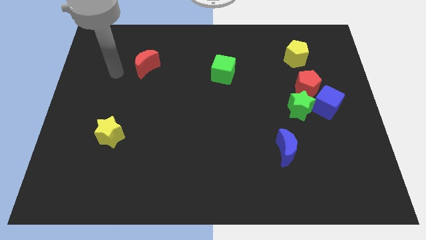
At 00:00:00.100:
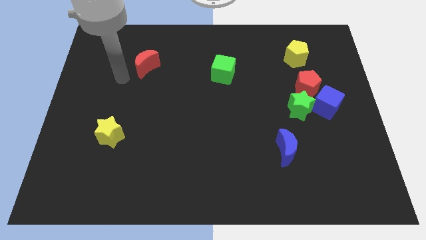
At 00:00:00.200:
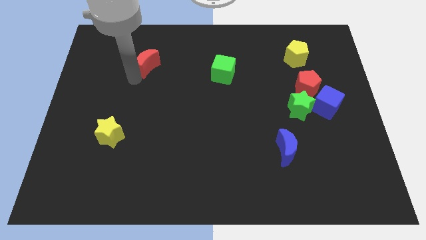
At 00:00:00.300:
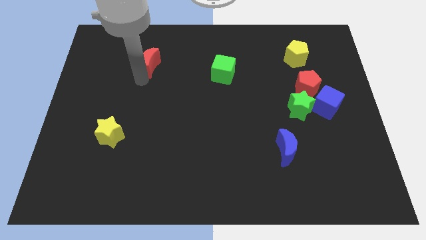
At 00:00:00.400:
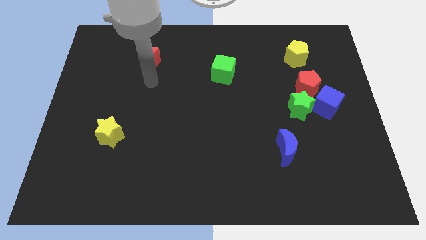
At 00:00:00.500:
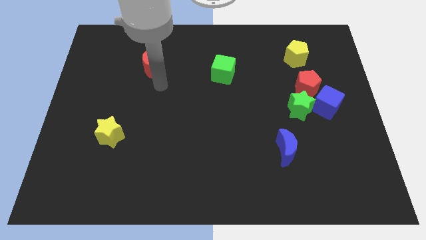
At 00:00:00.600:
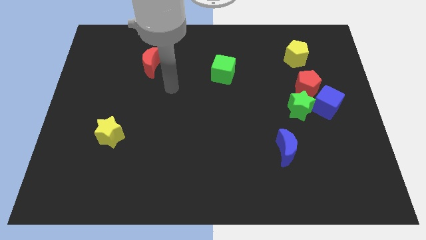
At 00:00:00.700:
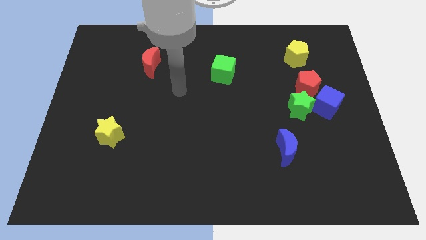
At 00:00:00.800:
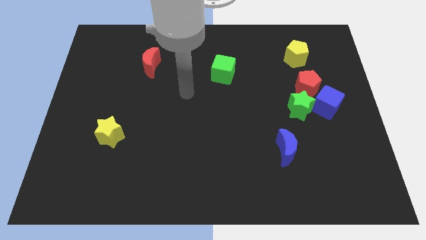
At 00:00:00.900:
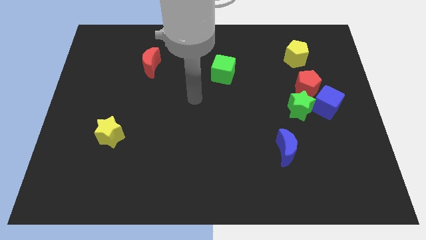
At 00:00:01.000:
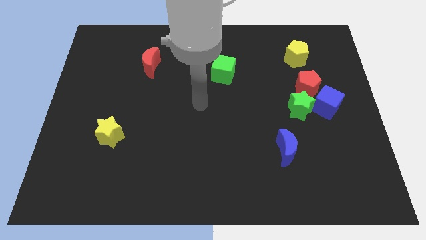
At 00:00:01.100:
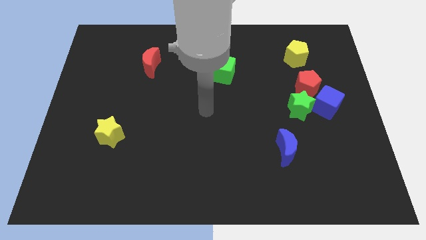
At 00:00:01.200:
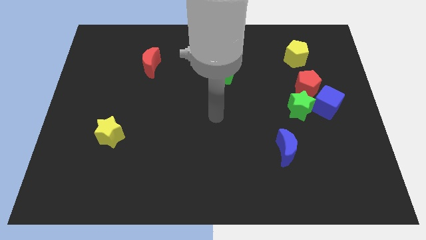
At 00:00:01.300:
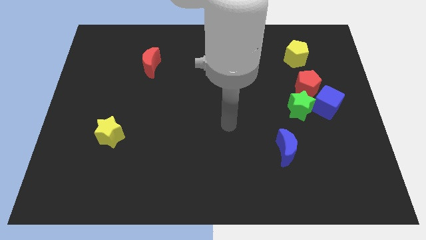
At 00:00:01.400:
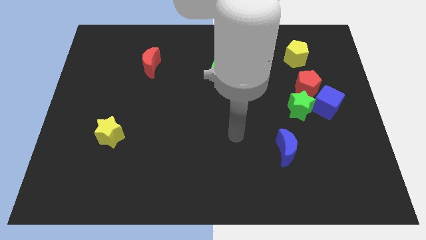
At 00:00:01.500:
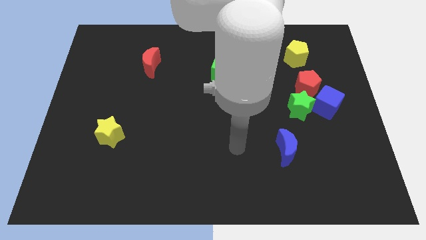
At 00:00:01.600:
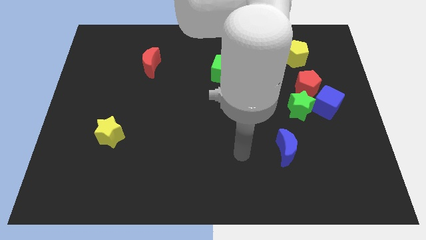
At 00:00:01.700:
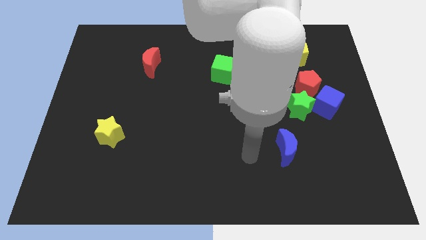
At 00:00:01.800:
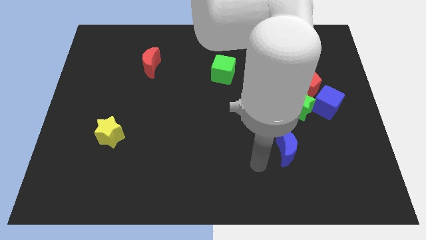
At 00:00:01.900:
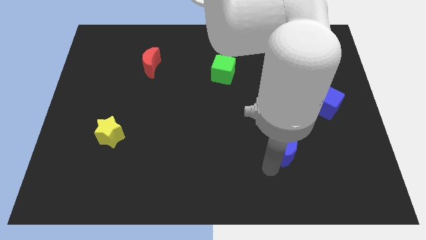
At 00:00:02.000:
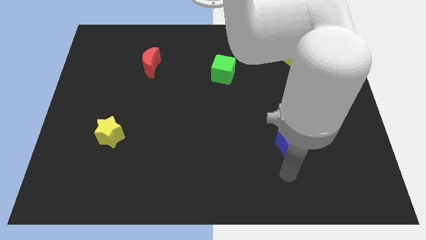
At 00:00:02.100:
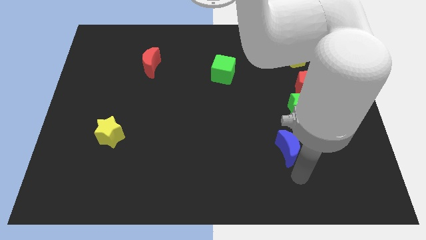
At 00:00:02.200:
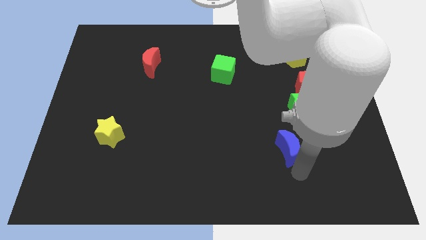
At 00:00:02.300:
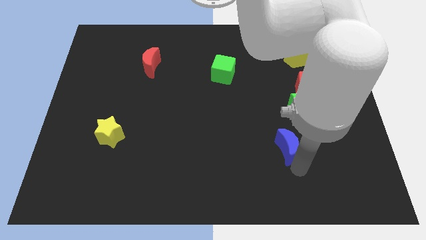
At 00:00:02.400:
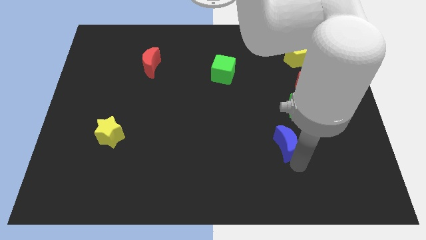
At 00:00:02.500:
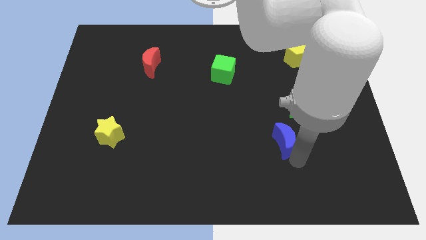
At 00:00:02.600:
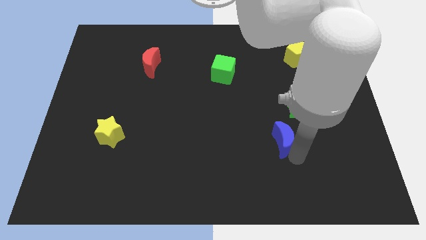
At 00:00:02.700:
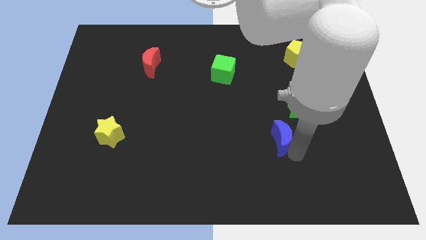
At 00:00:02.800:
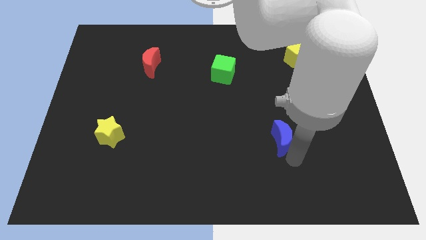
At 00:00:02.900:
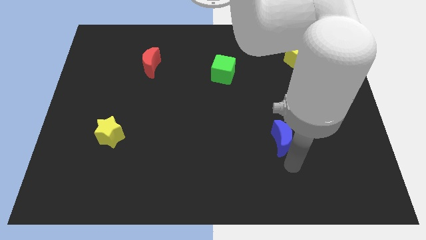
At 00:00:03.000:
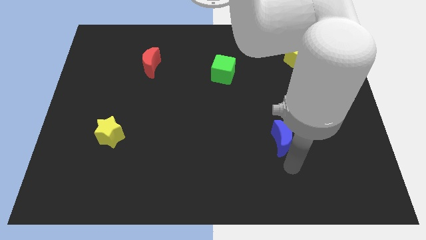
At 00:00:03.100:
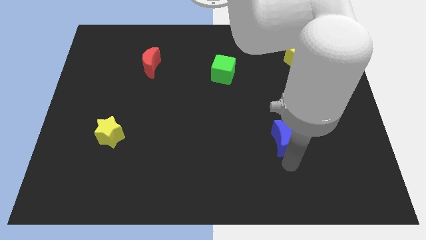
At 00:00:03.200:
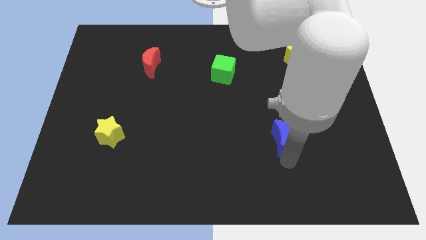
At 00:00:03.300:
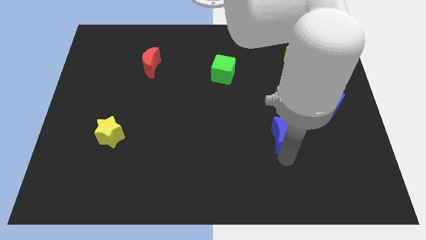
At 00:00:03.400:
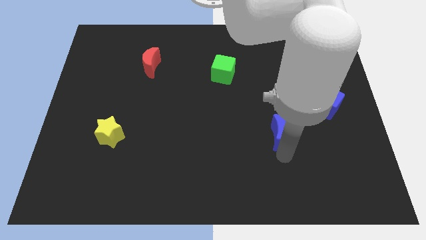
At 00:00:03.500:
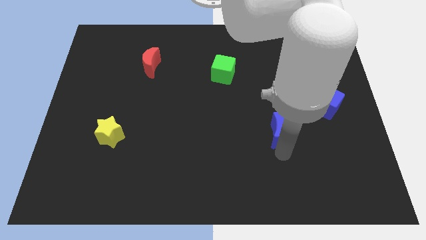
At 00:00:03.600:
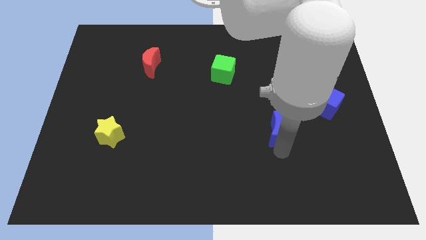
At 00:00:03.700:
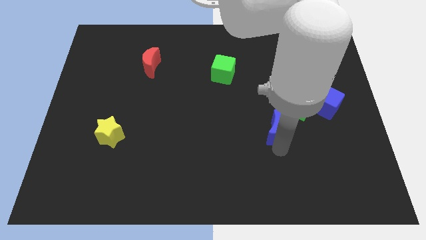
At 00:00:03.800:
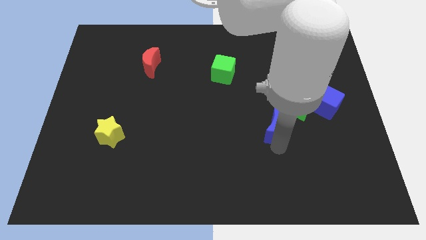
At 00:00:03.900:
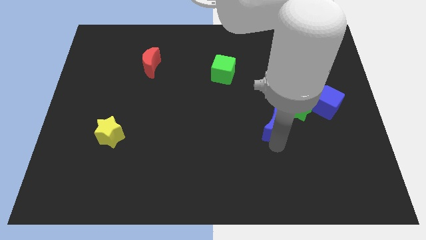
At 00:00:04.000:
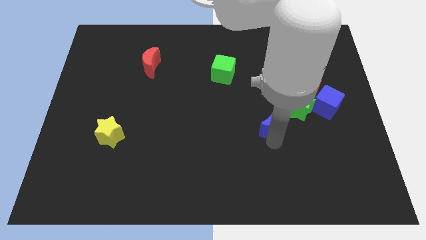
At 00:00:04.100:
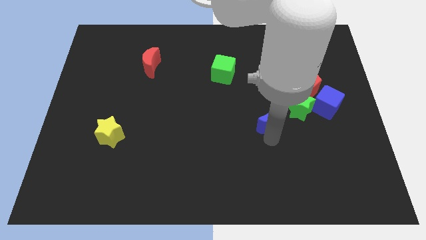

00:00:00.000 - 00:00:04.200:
slide the blue moon somewhat upwards

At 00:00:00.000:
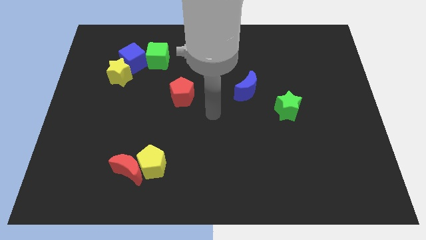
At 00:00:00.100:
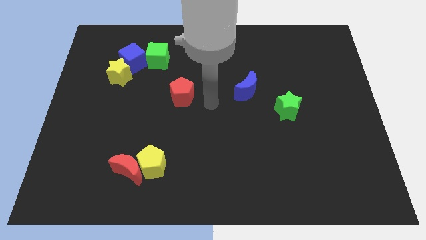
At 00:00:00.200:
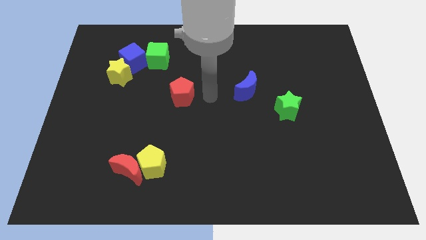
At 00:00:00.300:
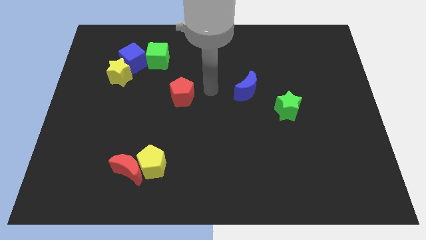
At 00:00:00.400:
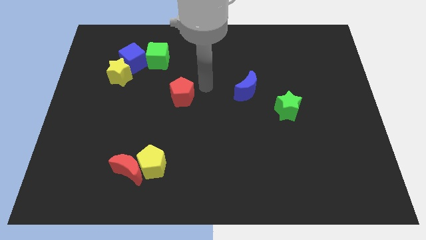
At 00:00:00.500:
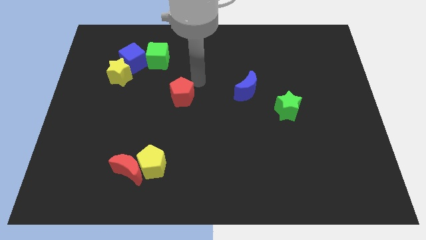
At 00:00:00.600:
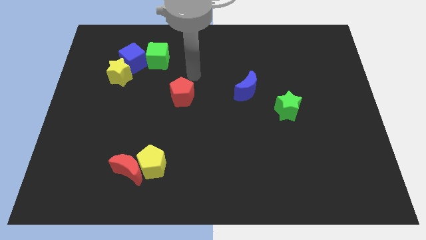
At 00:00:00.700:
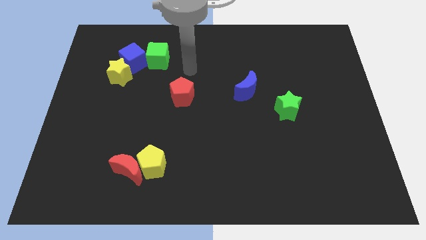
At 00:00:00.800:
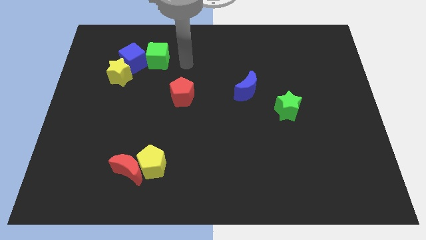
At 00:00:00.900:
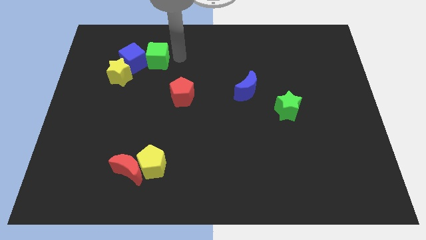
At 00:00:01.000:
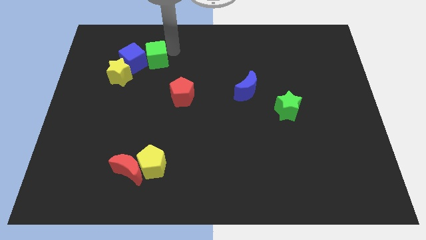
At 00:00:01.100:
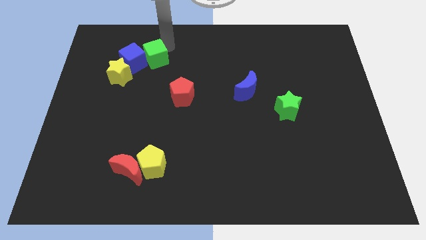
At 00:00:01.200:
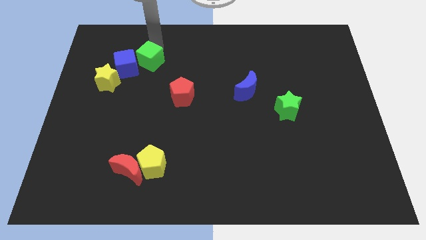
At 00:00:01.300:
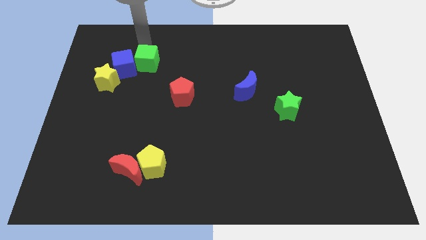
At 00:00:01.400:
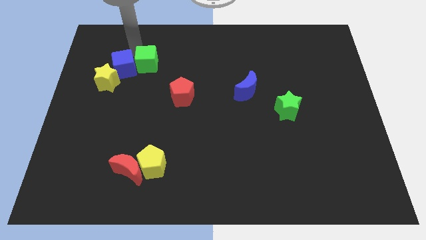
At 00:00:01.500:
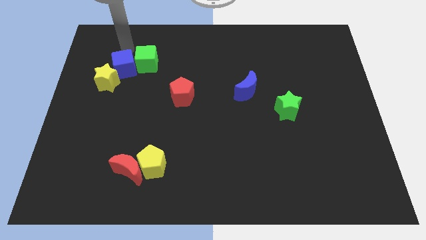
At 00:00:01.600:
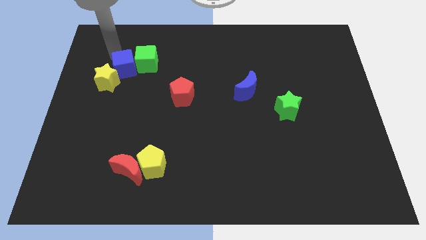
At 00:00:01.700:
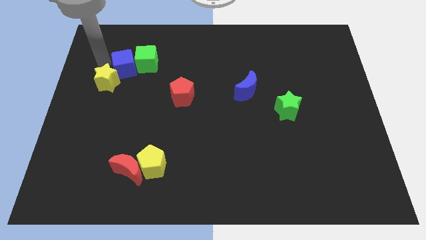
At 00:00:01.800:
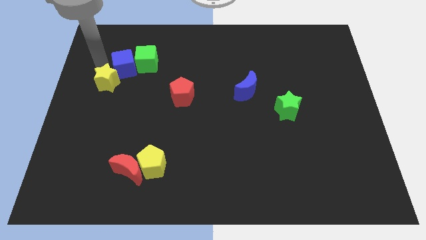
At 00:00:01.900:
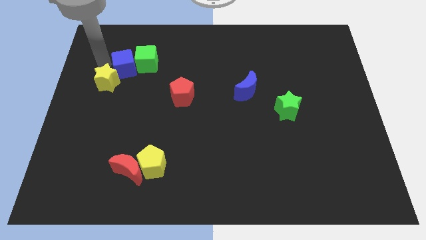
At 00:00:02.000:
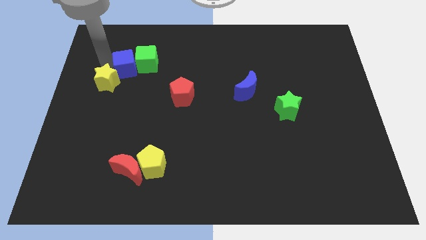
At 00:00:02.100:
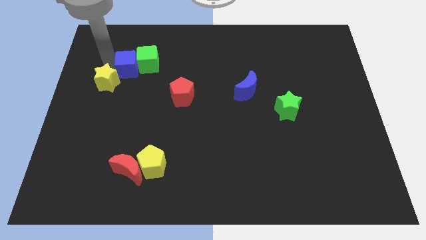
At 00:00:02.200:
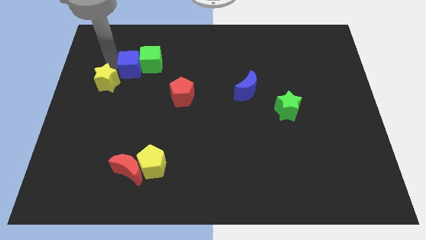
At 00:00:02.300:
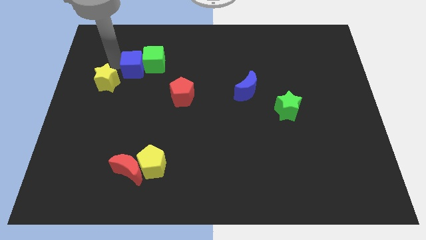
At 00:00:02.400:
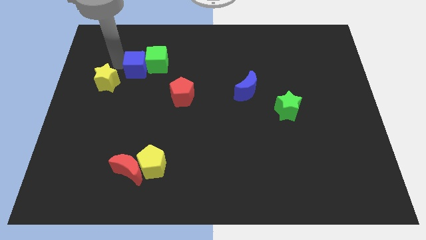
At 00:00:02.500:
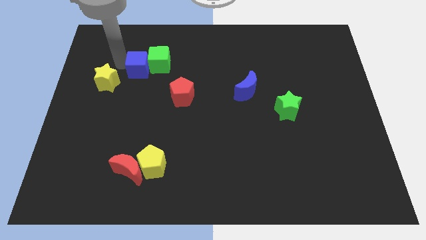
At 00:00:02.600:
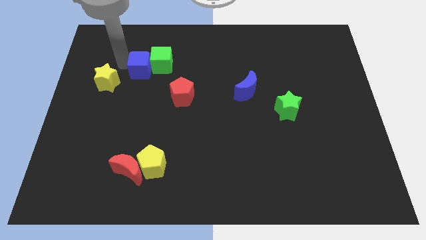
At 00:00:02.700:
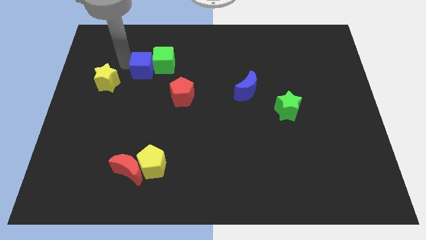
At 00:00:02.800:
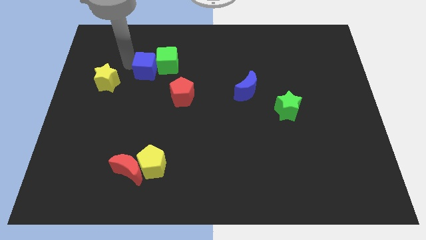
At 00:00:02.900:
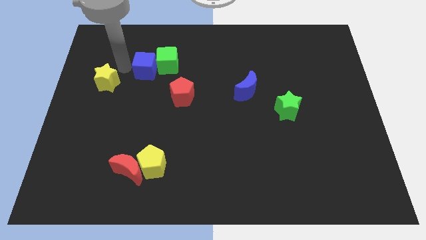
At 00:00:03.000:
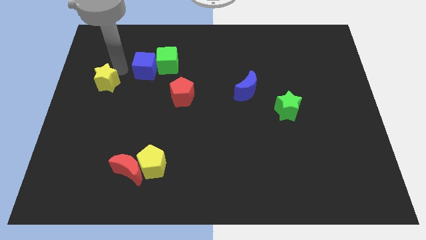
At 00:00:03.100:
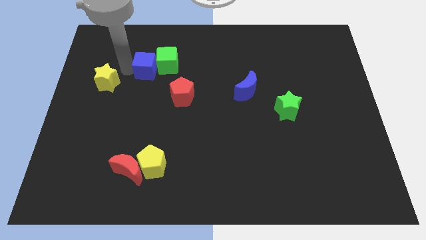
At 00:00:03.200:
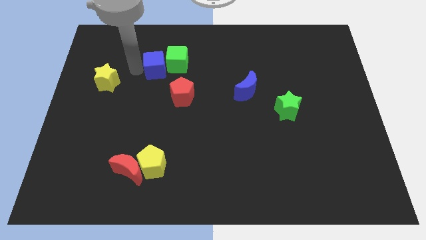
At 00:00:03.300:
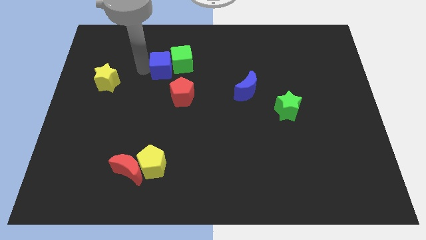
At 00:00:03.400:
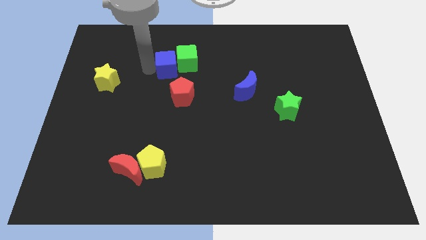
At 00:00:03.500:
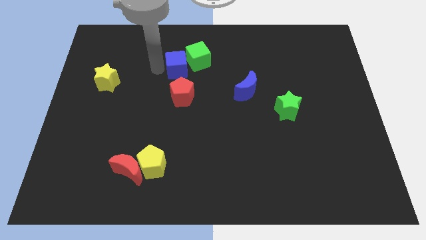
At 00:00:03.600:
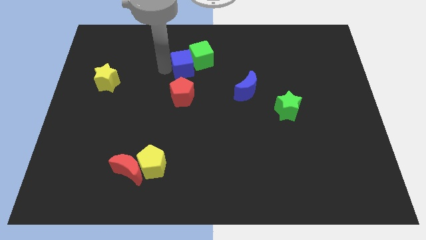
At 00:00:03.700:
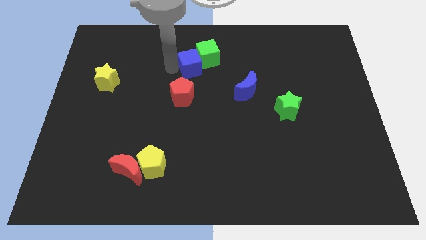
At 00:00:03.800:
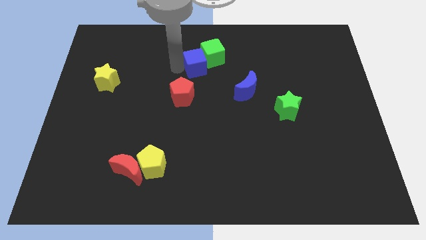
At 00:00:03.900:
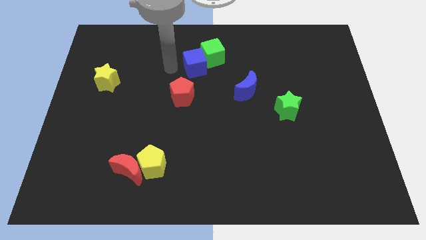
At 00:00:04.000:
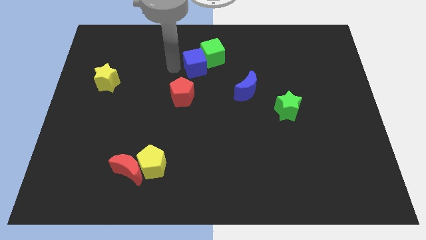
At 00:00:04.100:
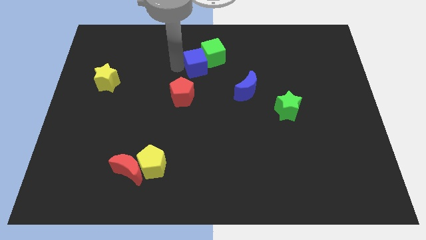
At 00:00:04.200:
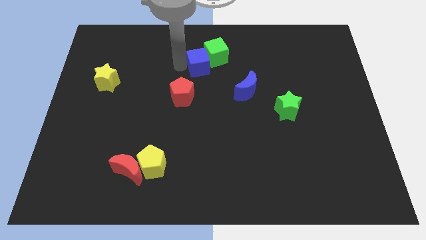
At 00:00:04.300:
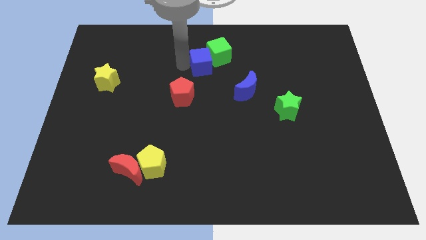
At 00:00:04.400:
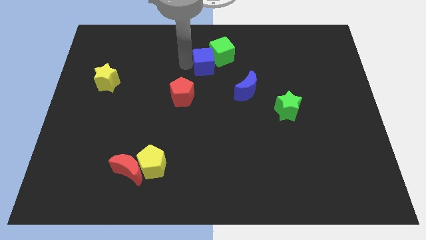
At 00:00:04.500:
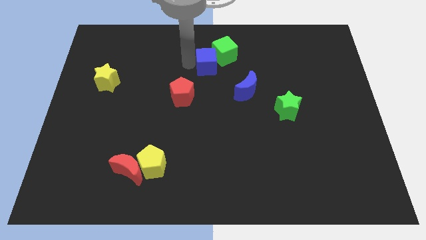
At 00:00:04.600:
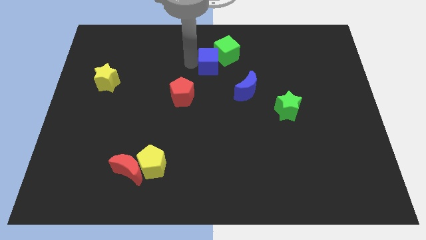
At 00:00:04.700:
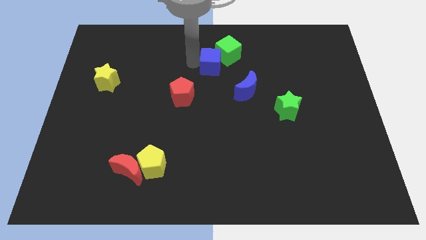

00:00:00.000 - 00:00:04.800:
slide the blue cube to the right
